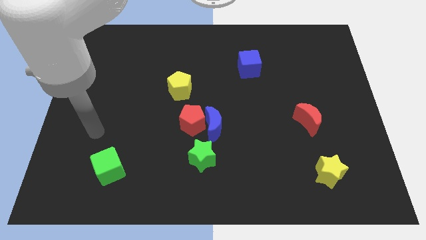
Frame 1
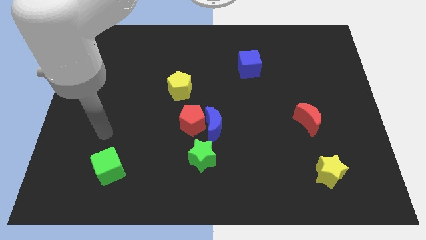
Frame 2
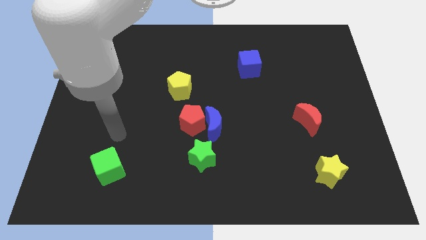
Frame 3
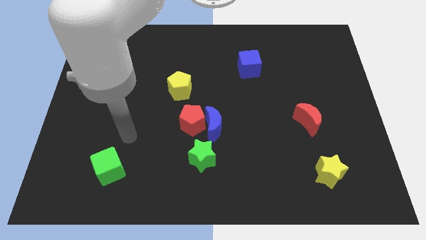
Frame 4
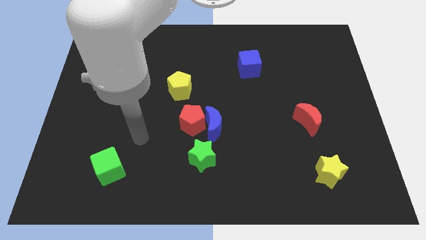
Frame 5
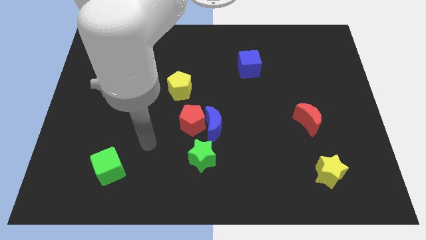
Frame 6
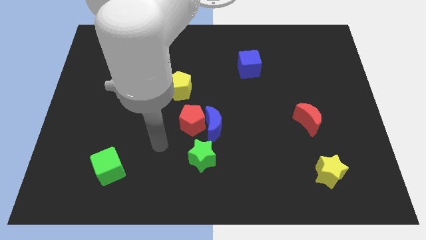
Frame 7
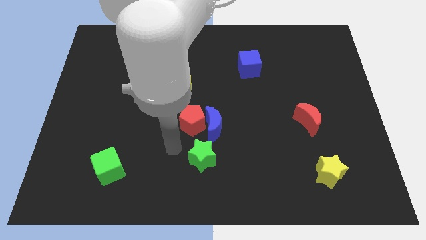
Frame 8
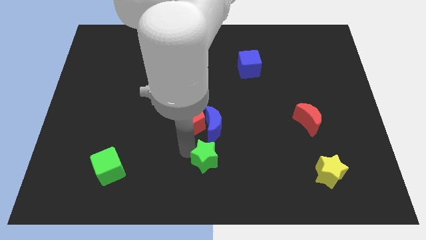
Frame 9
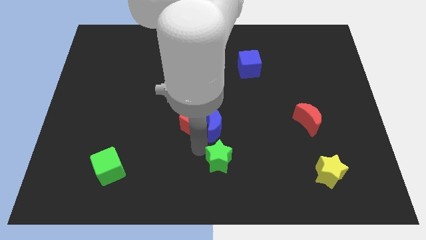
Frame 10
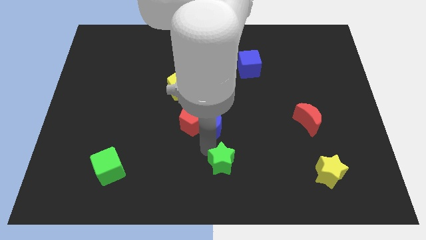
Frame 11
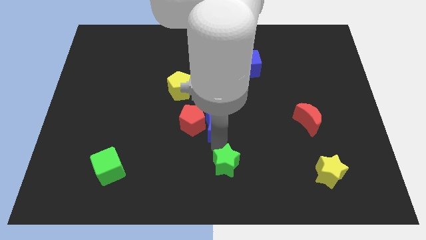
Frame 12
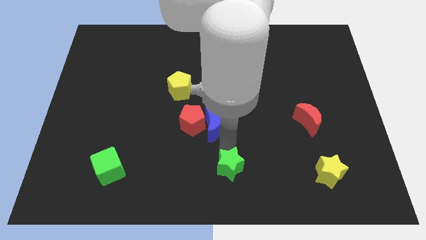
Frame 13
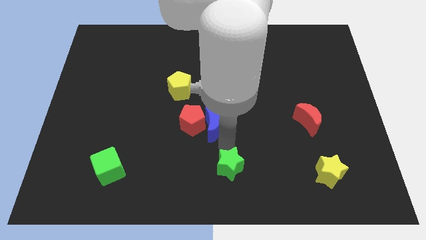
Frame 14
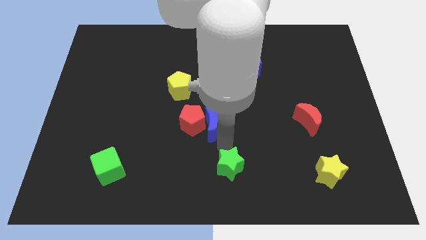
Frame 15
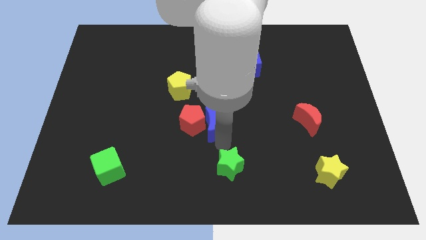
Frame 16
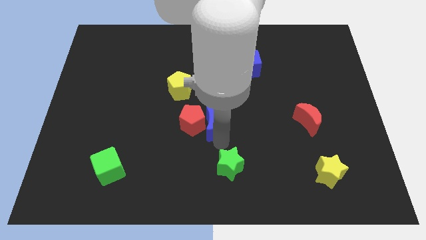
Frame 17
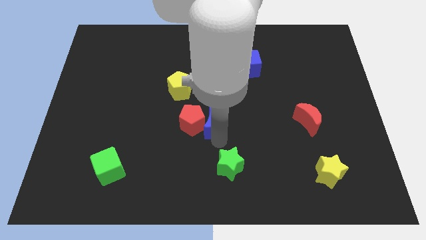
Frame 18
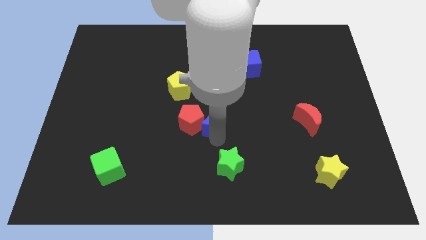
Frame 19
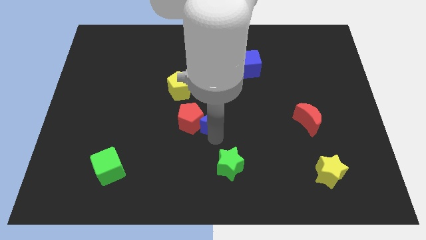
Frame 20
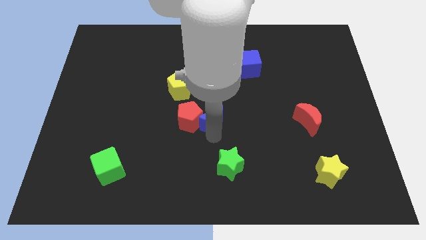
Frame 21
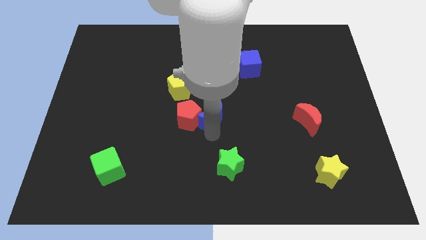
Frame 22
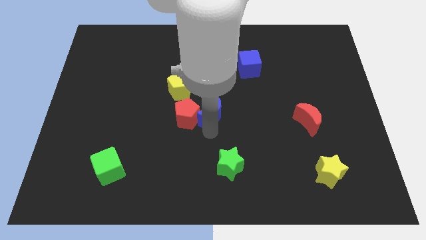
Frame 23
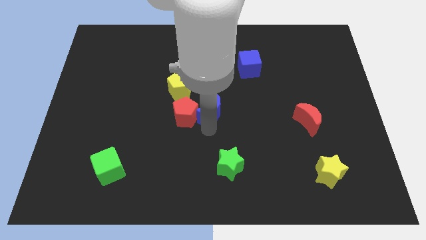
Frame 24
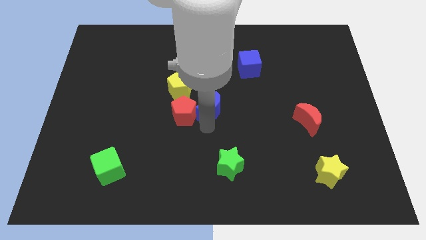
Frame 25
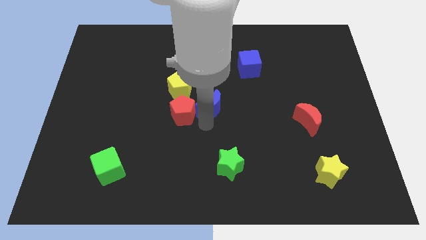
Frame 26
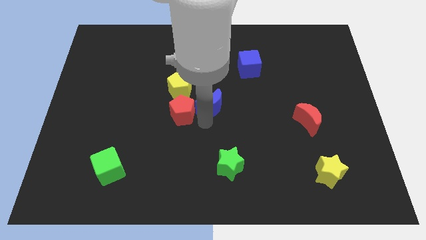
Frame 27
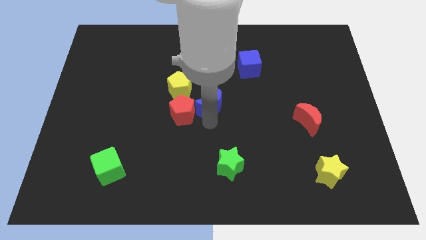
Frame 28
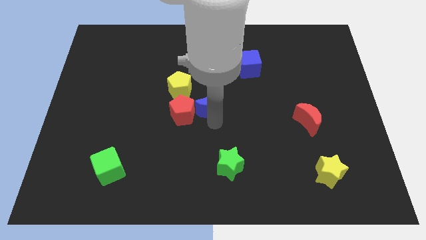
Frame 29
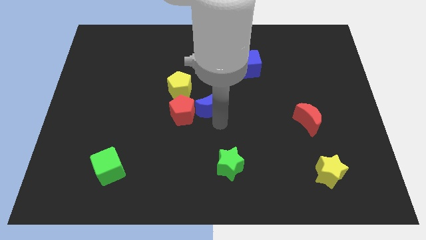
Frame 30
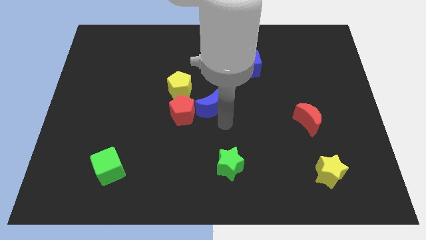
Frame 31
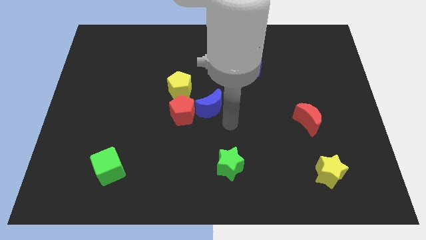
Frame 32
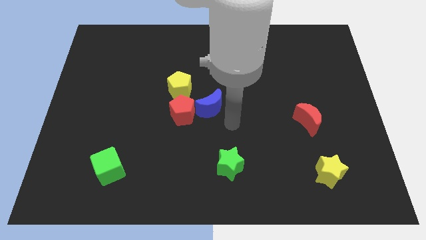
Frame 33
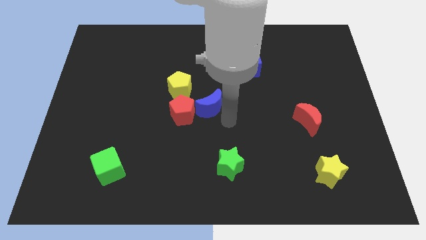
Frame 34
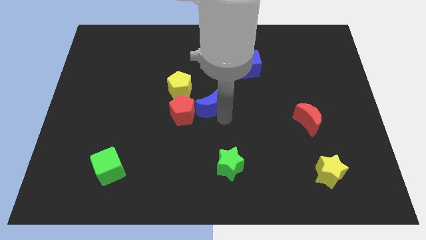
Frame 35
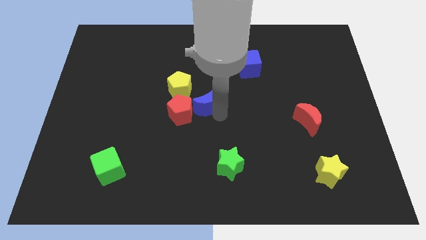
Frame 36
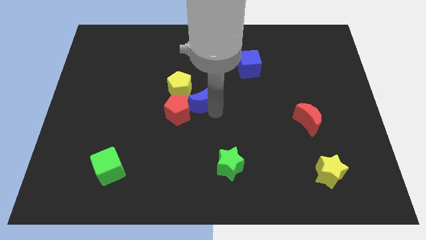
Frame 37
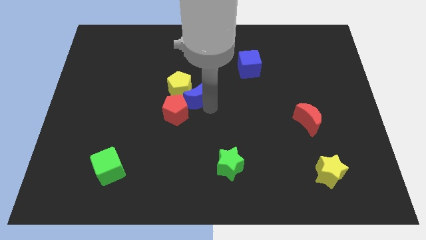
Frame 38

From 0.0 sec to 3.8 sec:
put the blue moon next to the yellow pentagon

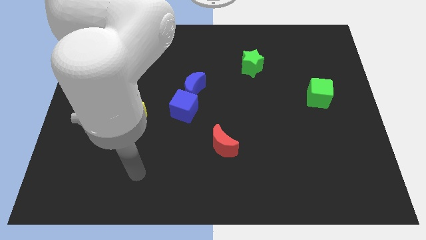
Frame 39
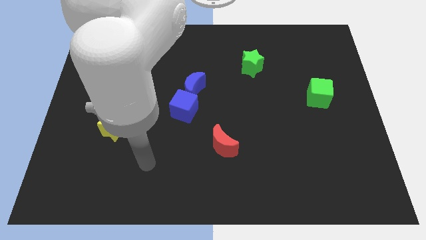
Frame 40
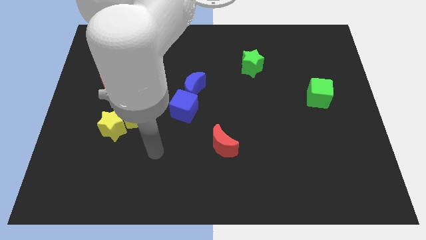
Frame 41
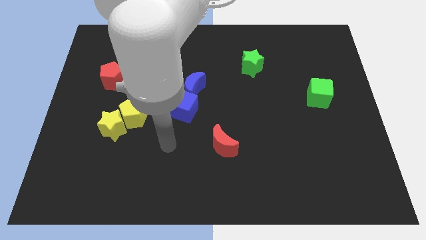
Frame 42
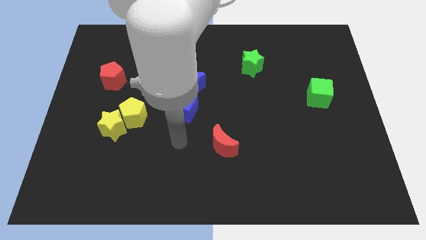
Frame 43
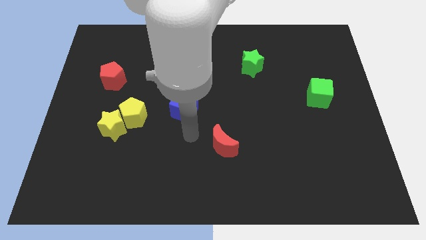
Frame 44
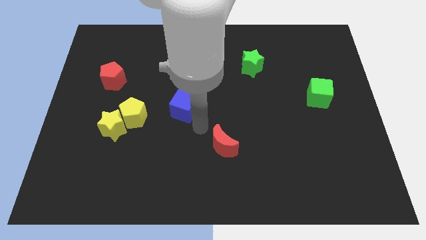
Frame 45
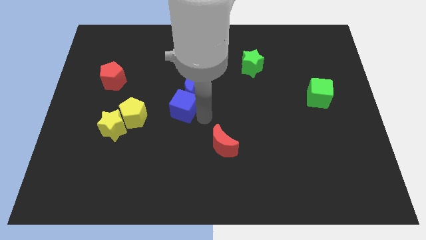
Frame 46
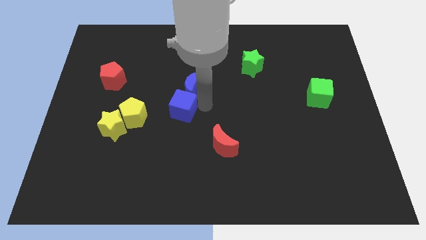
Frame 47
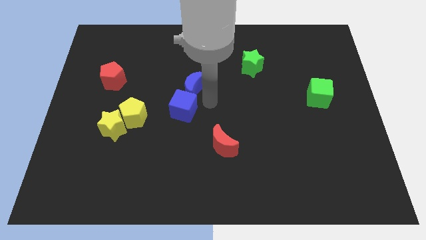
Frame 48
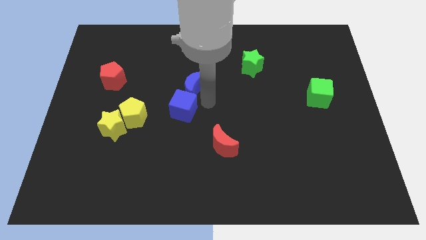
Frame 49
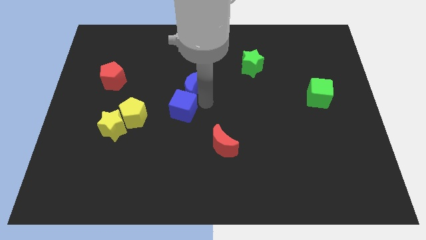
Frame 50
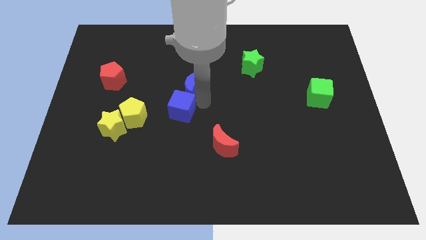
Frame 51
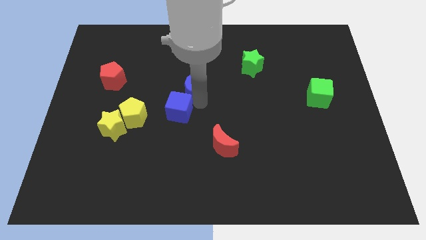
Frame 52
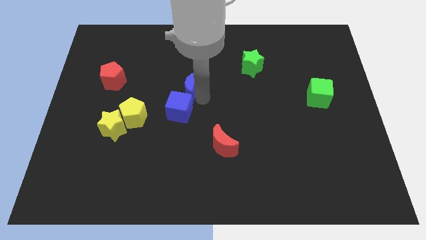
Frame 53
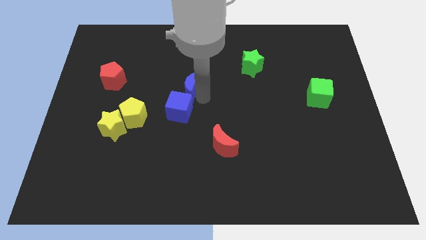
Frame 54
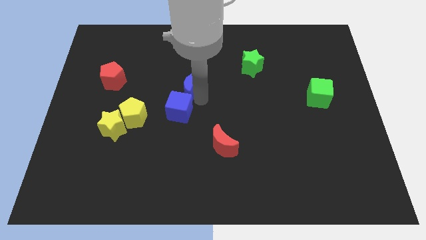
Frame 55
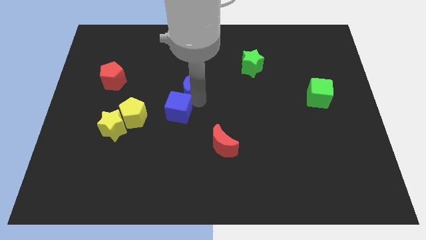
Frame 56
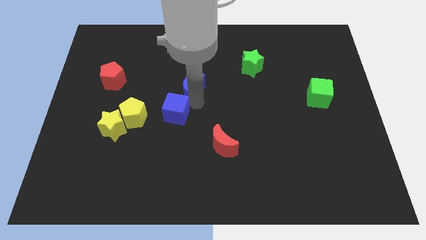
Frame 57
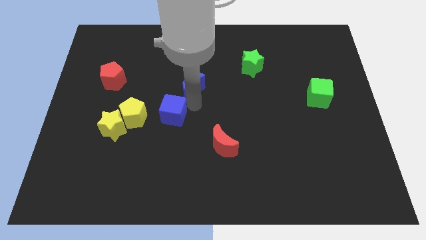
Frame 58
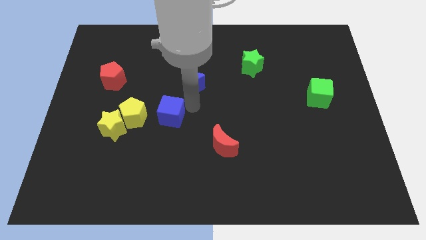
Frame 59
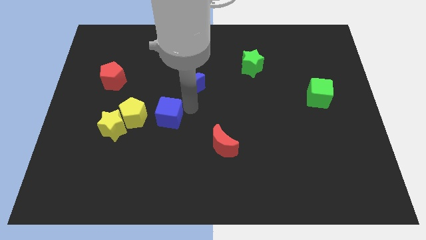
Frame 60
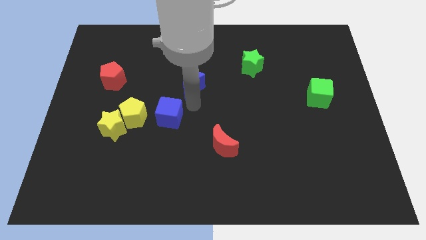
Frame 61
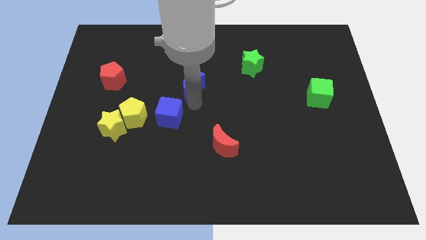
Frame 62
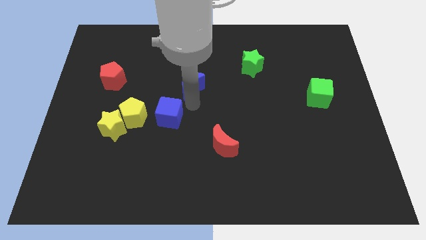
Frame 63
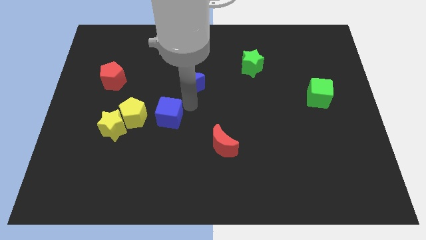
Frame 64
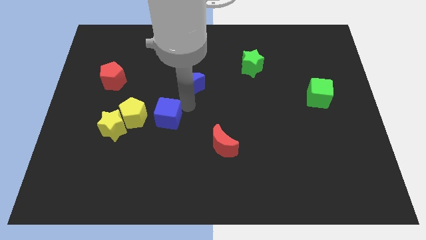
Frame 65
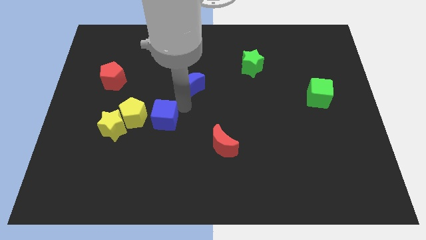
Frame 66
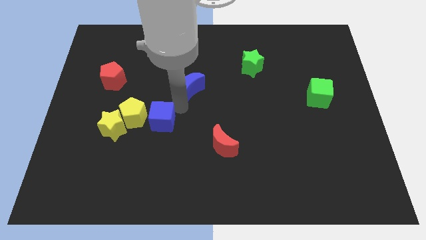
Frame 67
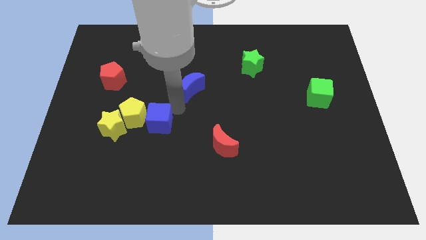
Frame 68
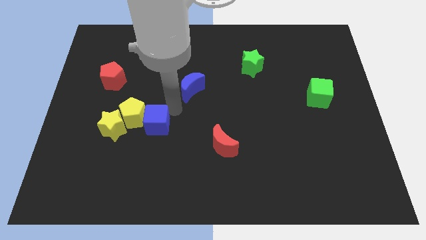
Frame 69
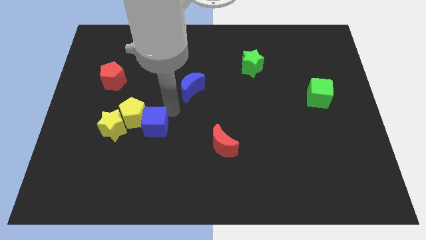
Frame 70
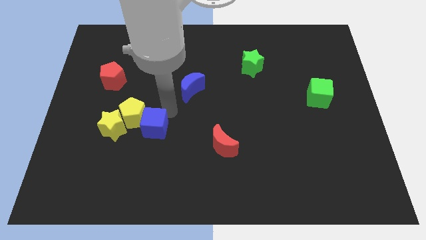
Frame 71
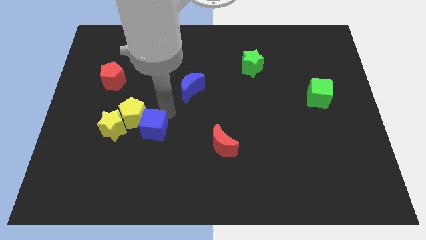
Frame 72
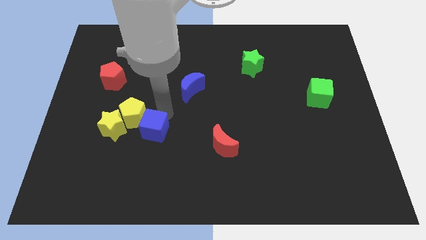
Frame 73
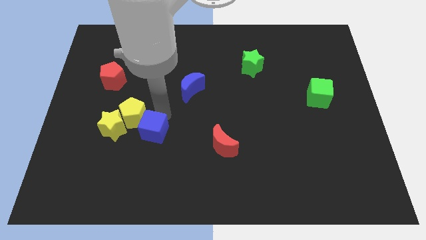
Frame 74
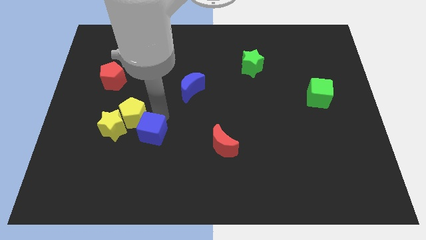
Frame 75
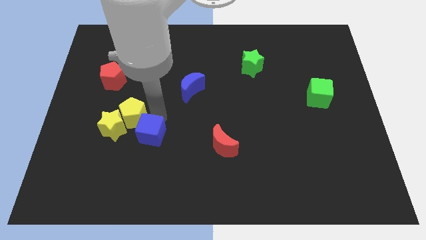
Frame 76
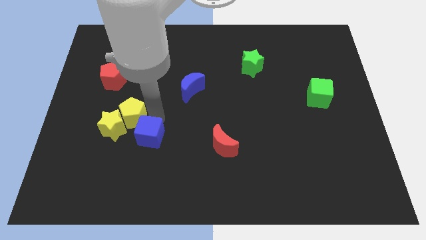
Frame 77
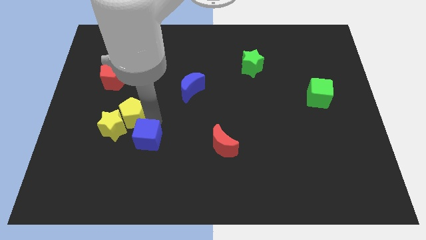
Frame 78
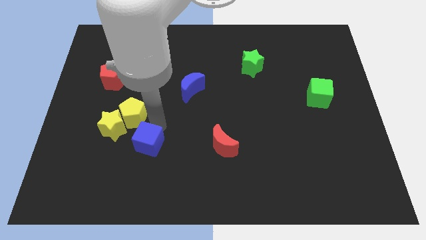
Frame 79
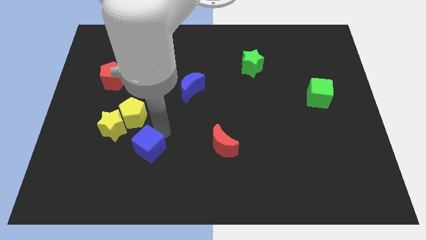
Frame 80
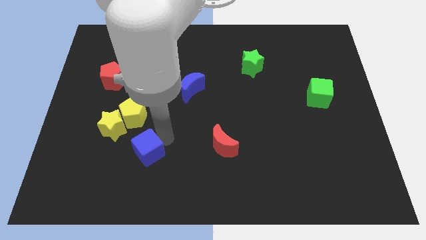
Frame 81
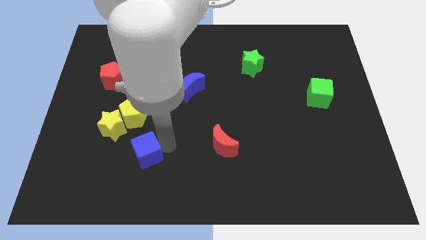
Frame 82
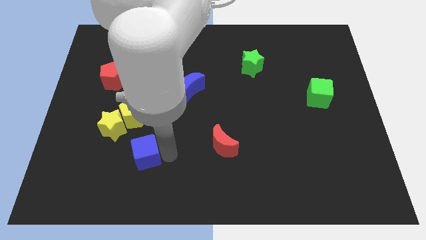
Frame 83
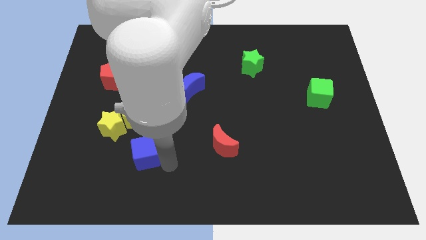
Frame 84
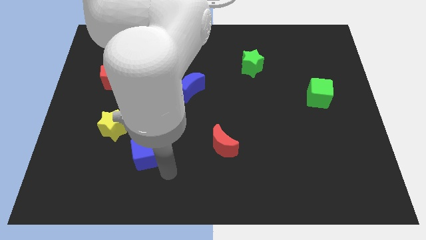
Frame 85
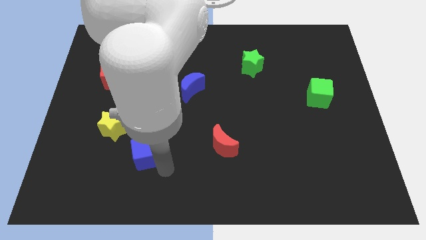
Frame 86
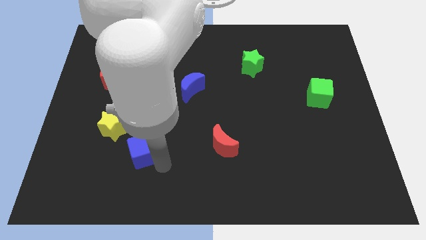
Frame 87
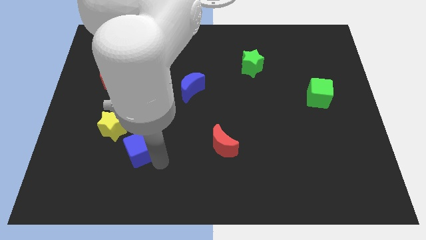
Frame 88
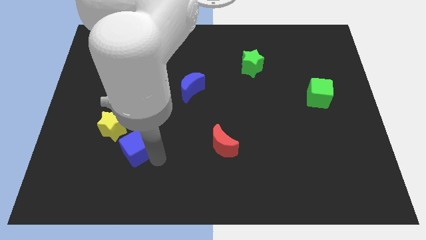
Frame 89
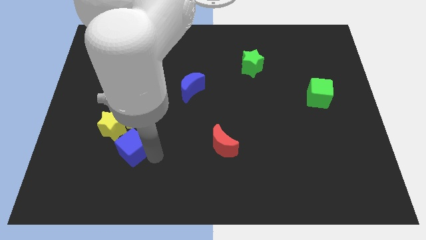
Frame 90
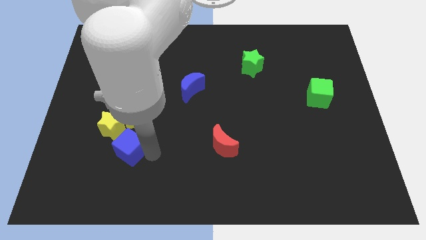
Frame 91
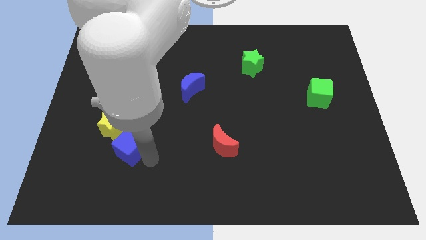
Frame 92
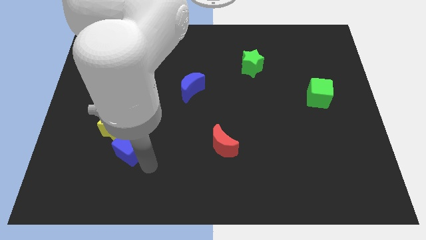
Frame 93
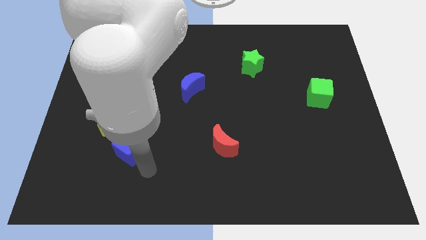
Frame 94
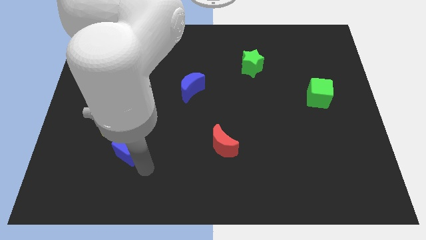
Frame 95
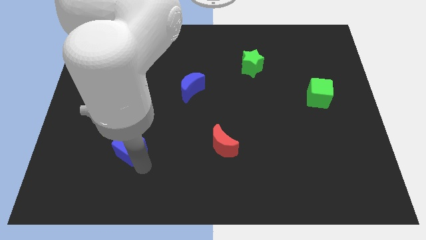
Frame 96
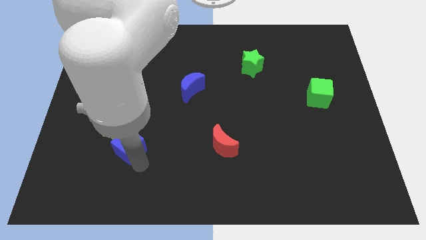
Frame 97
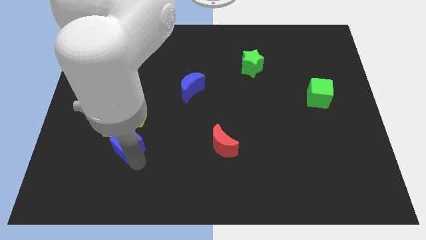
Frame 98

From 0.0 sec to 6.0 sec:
slide the blue cube to the yellow star
